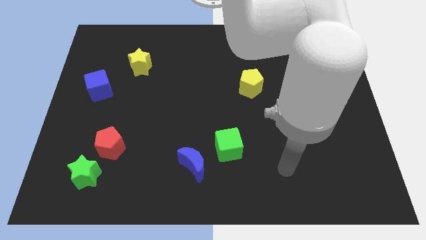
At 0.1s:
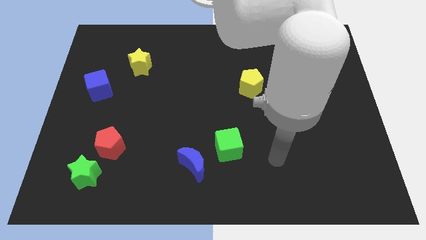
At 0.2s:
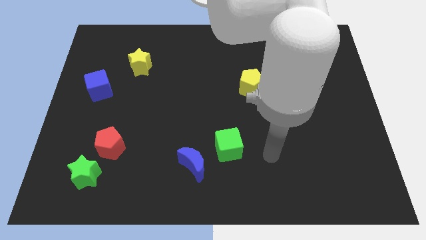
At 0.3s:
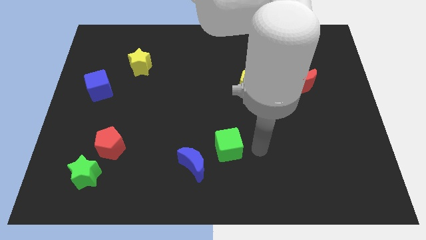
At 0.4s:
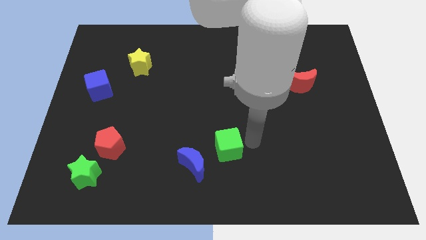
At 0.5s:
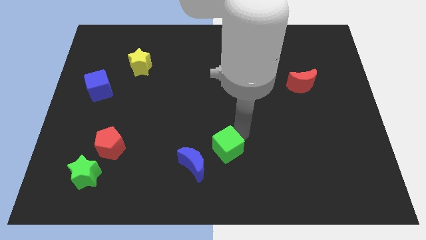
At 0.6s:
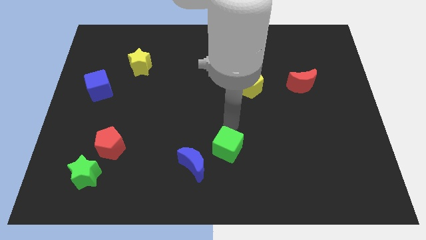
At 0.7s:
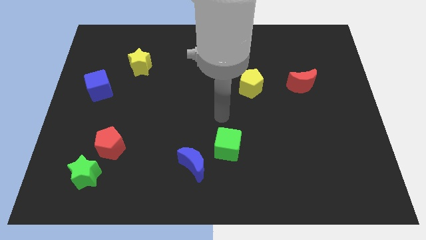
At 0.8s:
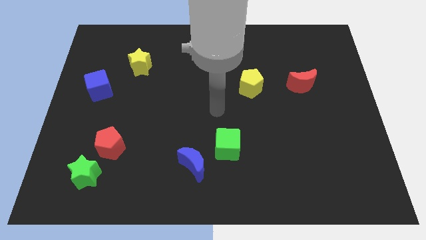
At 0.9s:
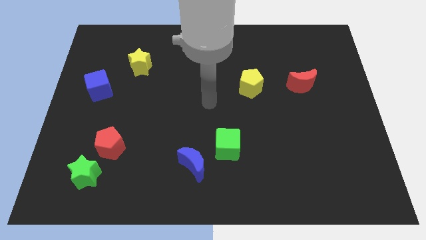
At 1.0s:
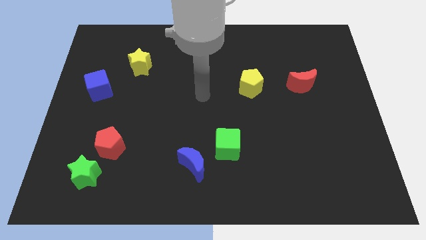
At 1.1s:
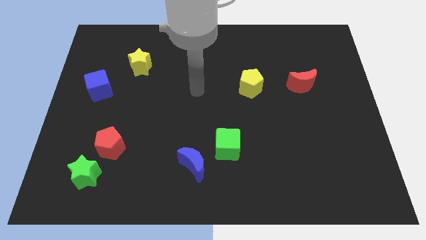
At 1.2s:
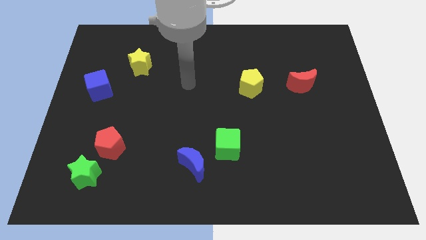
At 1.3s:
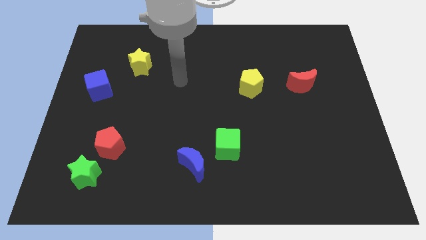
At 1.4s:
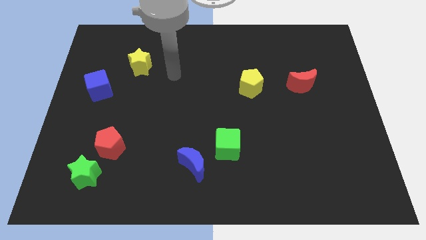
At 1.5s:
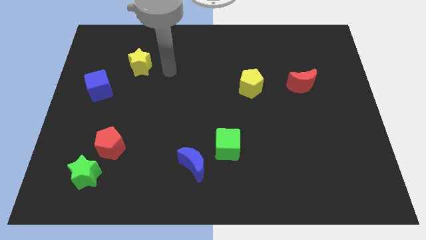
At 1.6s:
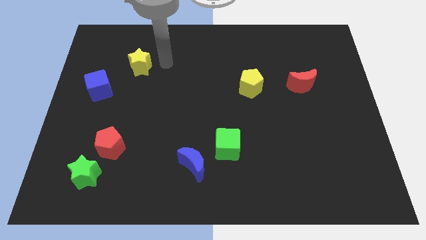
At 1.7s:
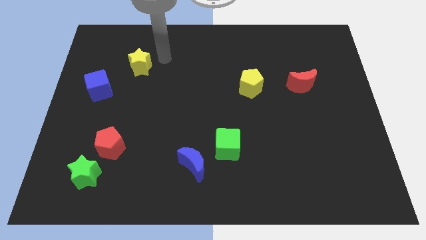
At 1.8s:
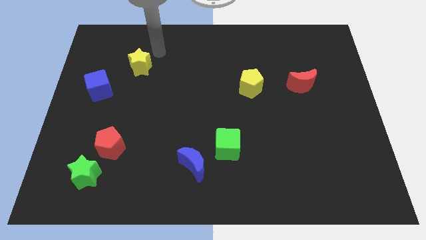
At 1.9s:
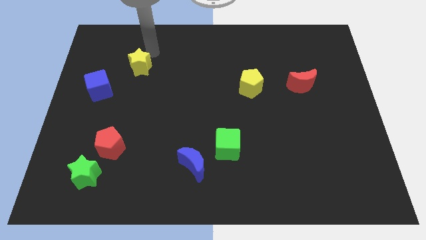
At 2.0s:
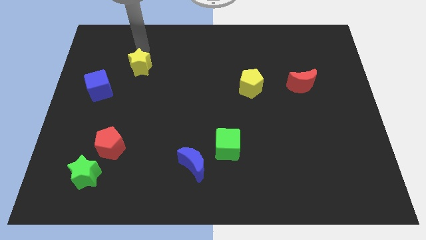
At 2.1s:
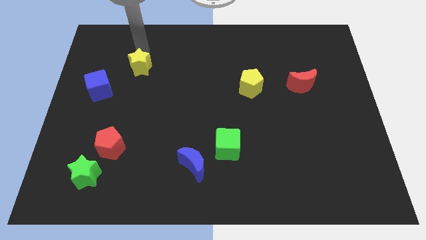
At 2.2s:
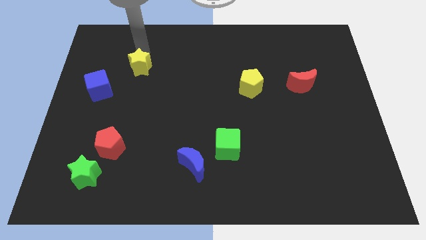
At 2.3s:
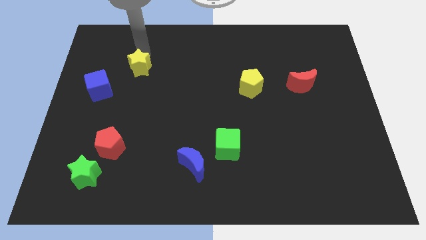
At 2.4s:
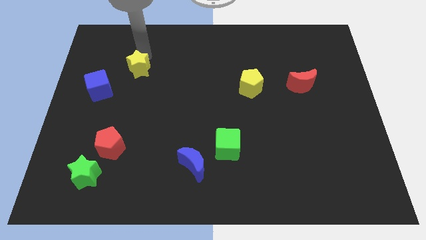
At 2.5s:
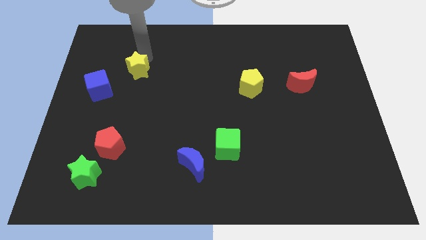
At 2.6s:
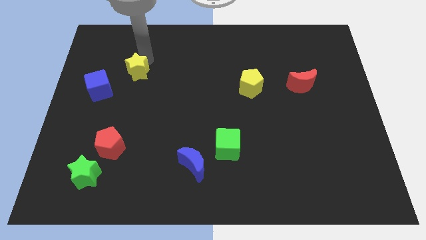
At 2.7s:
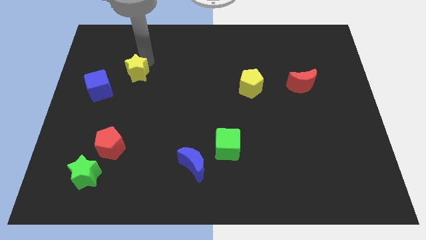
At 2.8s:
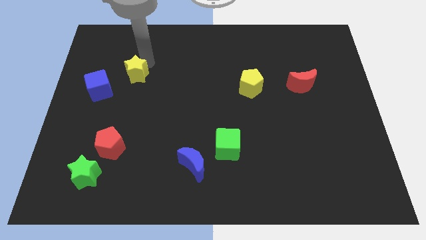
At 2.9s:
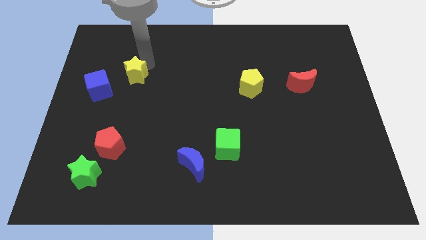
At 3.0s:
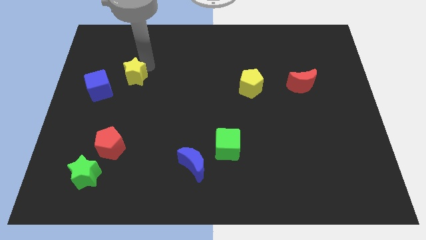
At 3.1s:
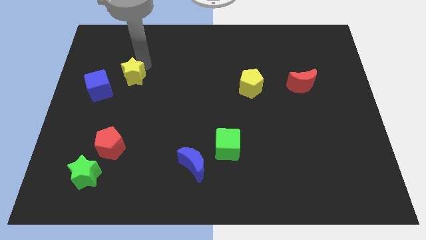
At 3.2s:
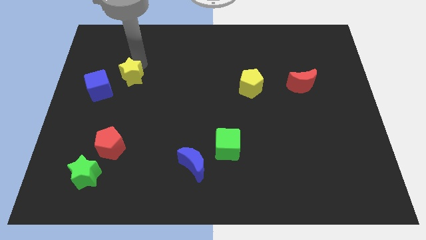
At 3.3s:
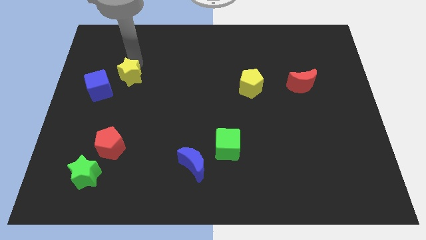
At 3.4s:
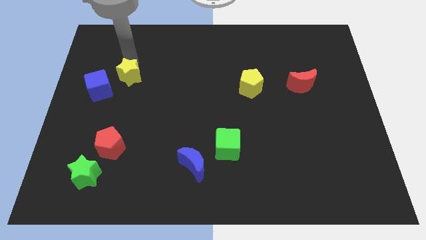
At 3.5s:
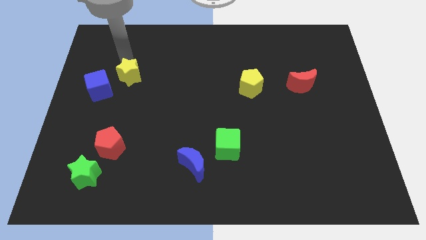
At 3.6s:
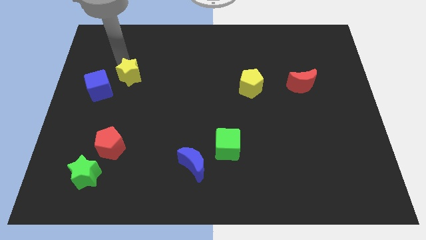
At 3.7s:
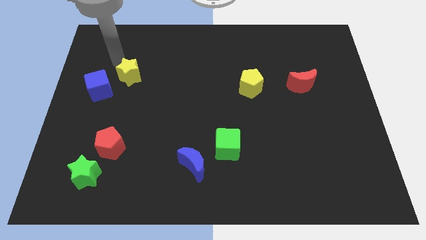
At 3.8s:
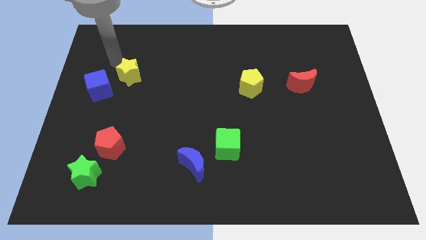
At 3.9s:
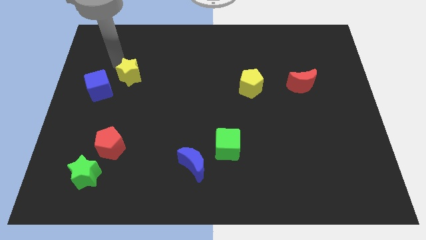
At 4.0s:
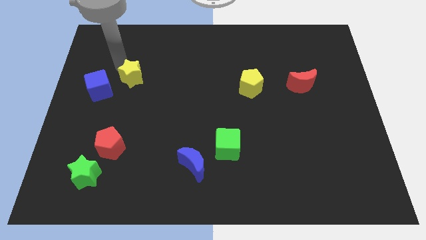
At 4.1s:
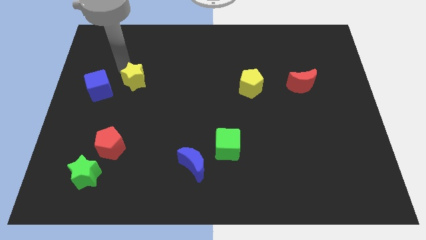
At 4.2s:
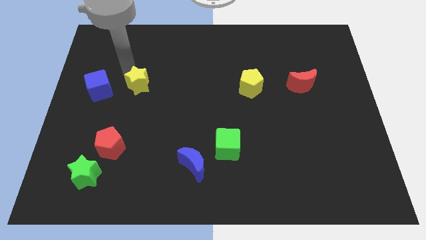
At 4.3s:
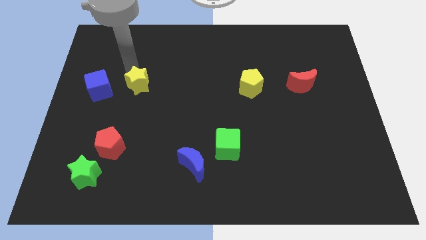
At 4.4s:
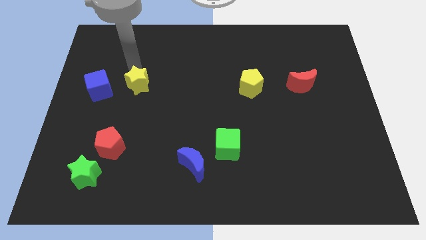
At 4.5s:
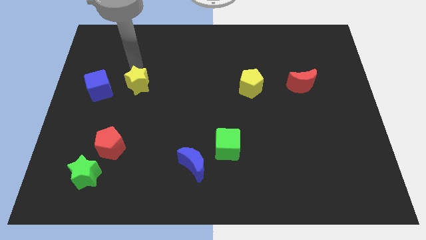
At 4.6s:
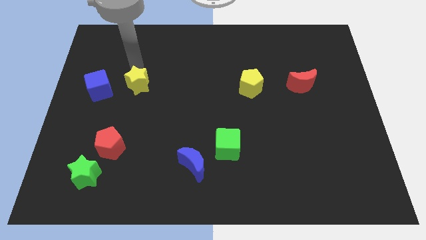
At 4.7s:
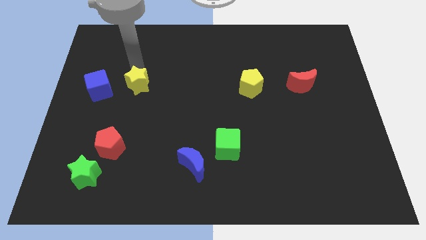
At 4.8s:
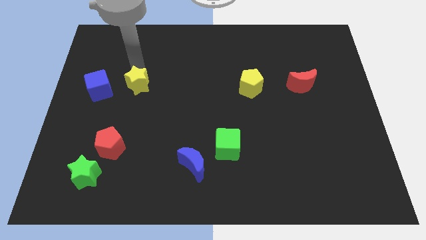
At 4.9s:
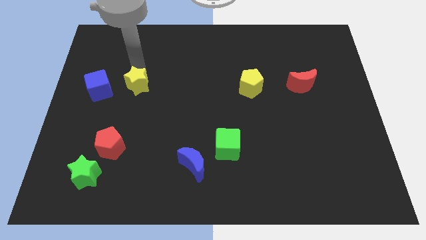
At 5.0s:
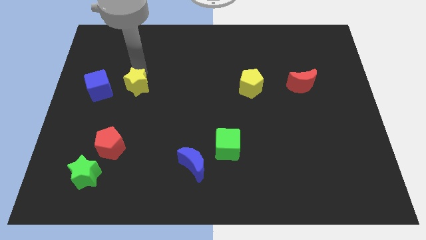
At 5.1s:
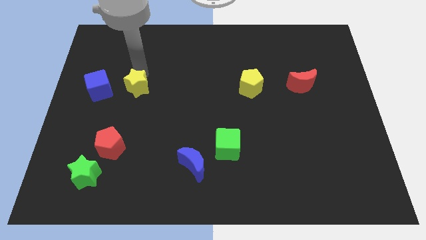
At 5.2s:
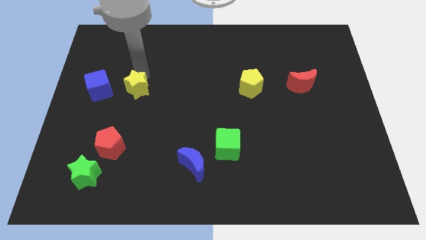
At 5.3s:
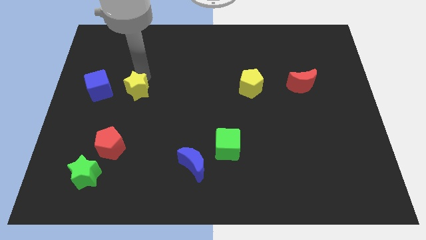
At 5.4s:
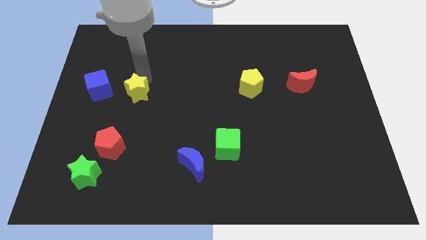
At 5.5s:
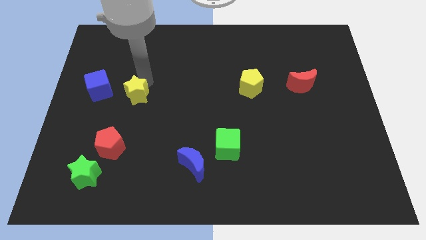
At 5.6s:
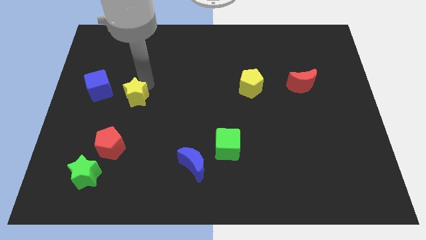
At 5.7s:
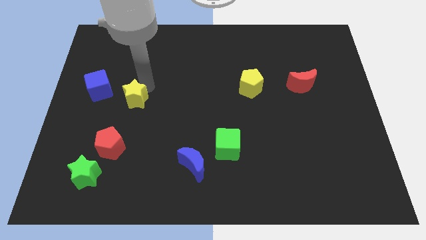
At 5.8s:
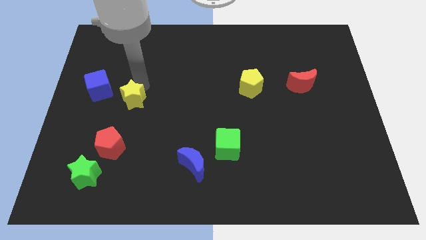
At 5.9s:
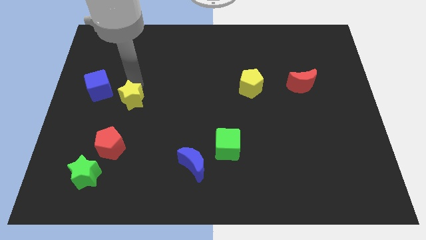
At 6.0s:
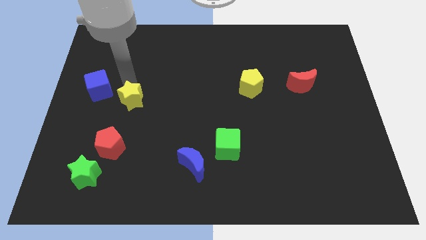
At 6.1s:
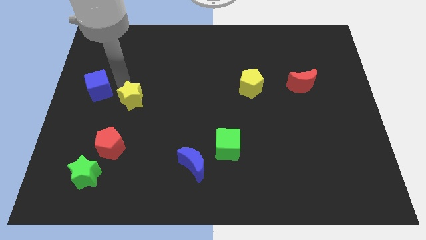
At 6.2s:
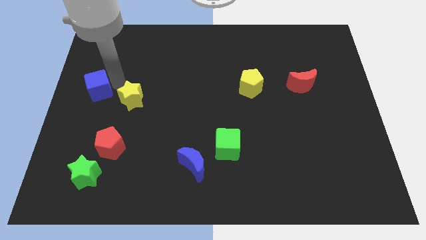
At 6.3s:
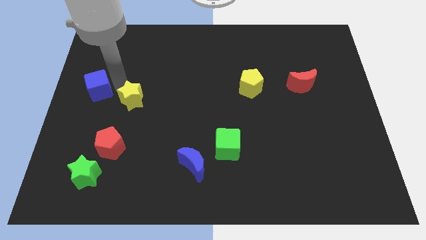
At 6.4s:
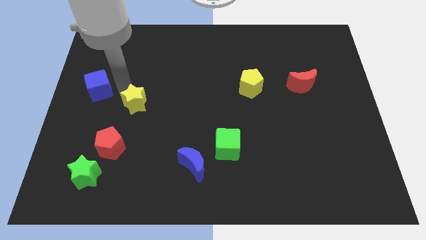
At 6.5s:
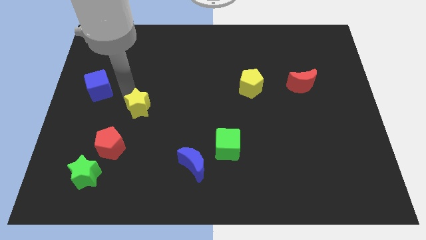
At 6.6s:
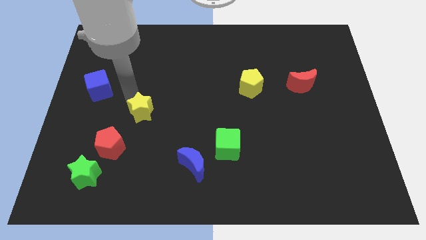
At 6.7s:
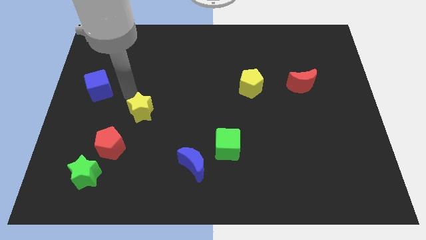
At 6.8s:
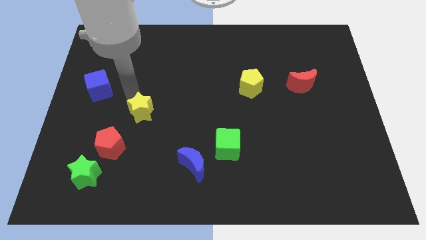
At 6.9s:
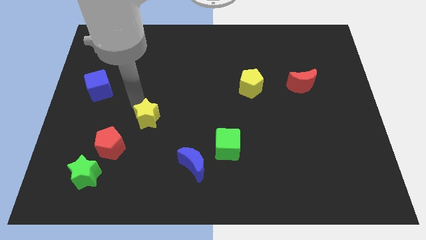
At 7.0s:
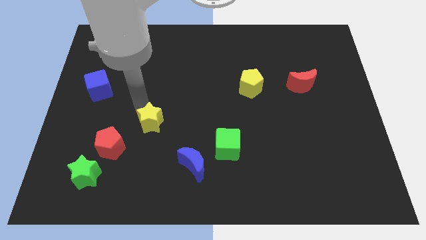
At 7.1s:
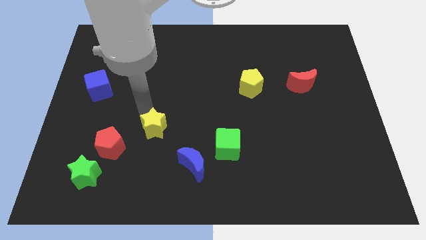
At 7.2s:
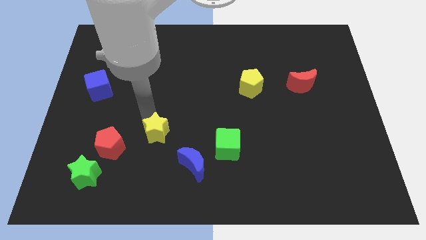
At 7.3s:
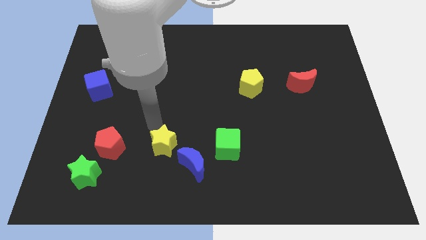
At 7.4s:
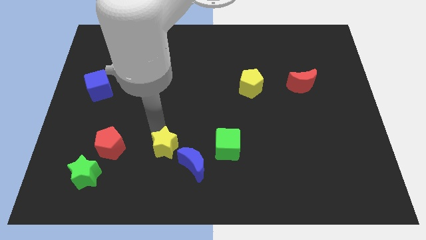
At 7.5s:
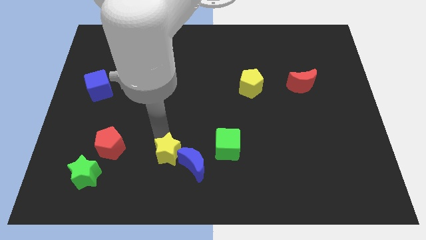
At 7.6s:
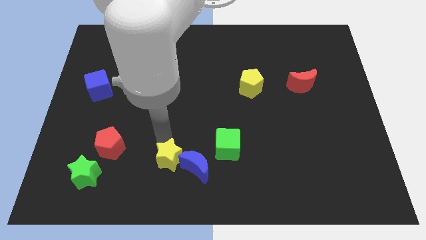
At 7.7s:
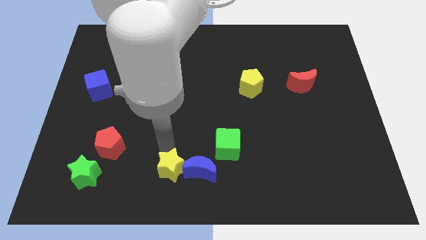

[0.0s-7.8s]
push the yellow star to the bottom side
